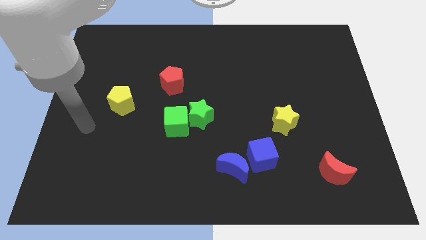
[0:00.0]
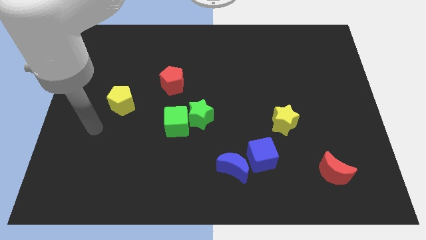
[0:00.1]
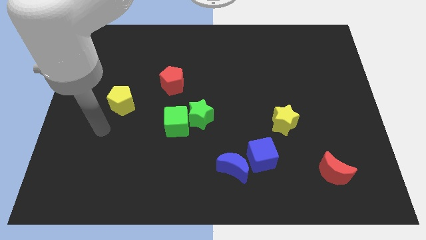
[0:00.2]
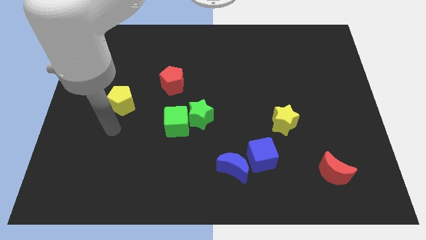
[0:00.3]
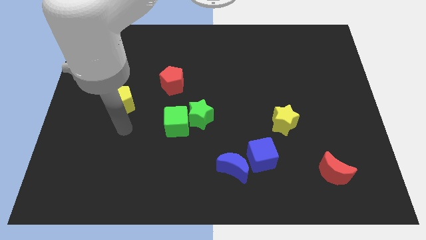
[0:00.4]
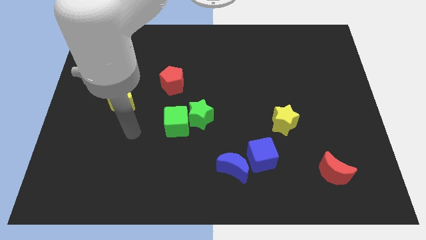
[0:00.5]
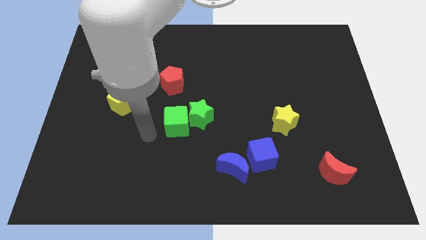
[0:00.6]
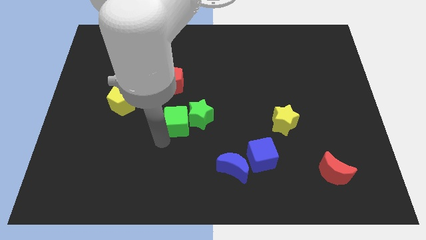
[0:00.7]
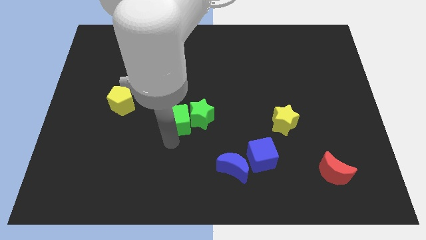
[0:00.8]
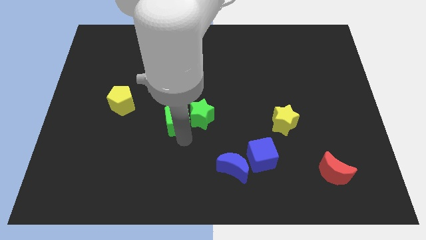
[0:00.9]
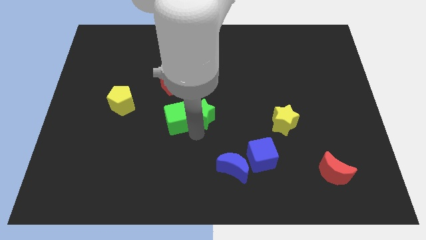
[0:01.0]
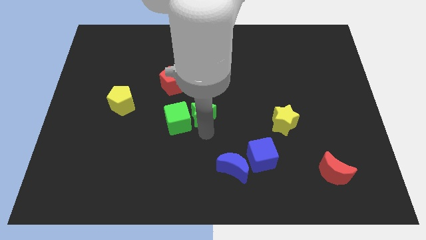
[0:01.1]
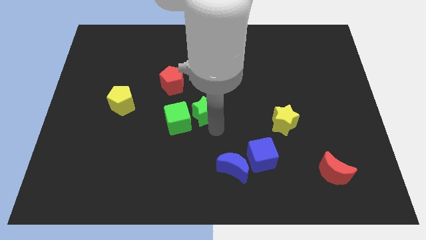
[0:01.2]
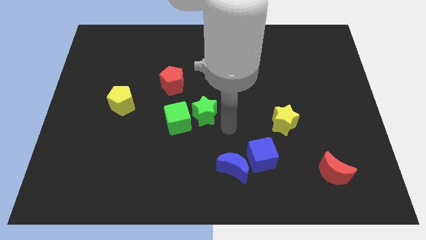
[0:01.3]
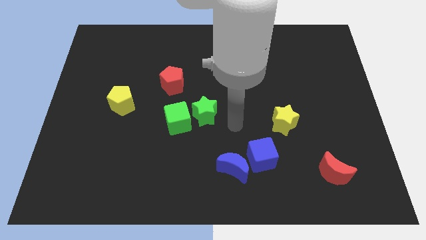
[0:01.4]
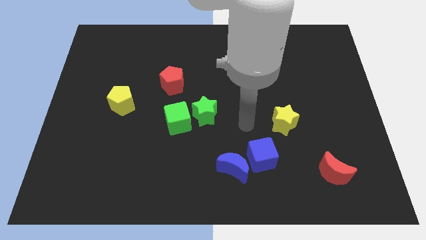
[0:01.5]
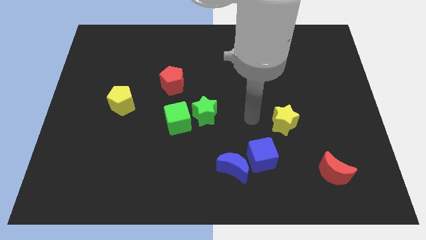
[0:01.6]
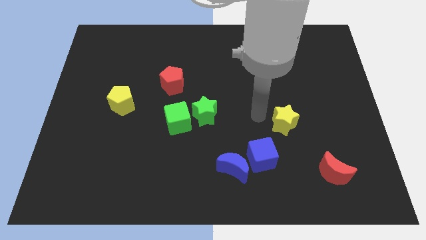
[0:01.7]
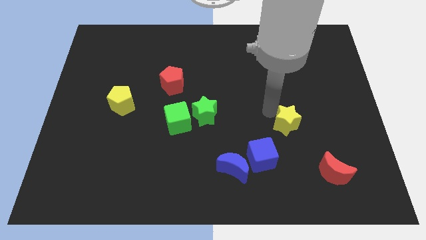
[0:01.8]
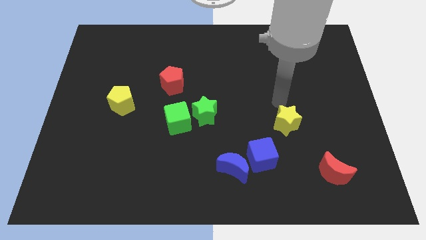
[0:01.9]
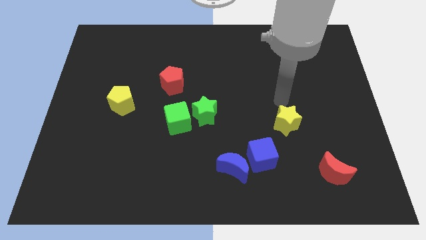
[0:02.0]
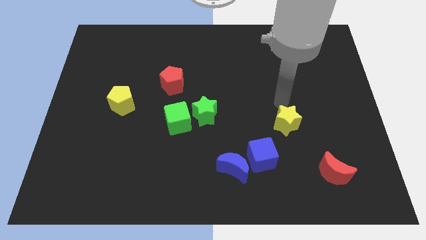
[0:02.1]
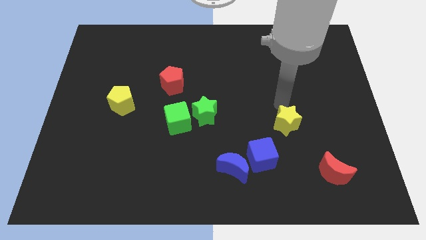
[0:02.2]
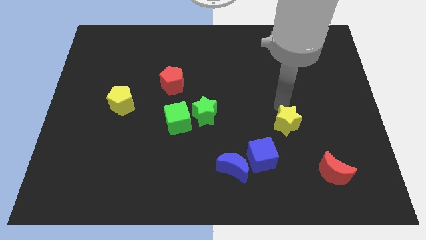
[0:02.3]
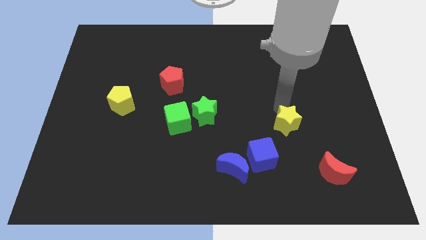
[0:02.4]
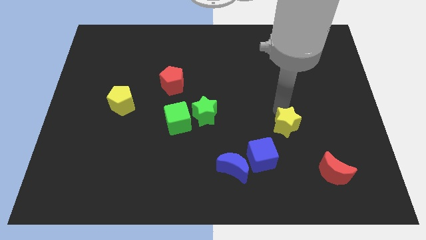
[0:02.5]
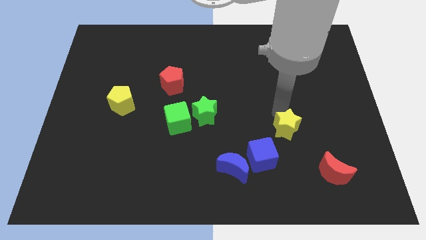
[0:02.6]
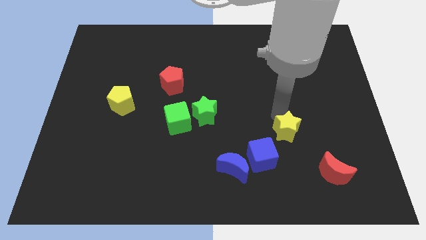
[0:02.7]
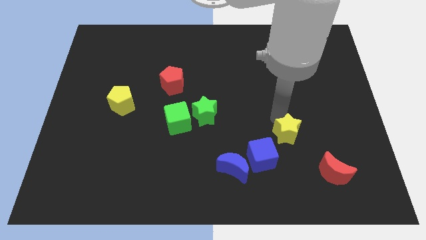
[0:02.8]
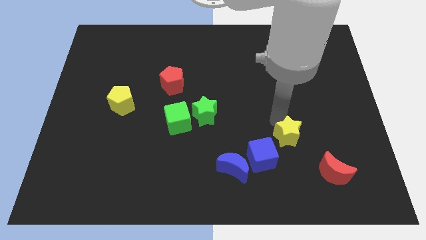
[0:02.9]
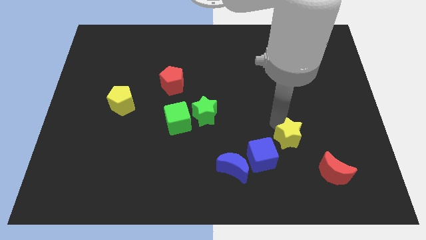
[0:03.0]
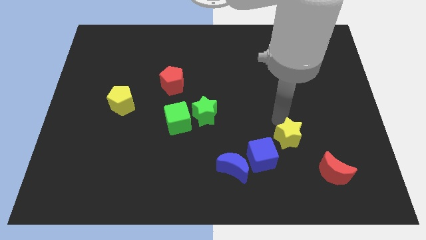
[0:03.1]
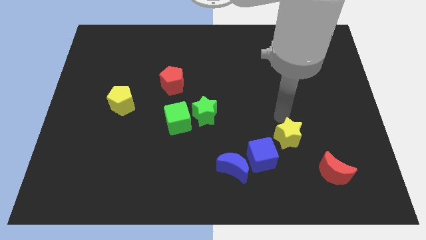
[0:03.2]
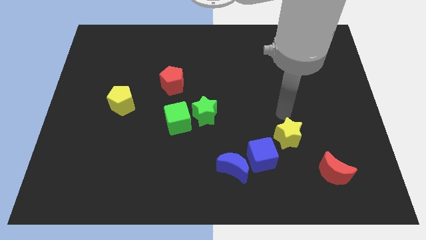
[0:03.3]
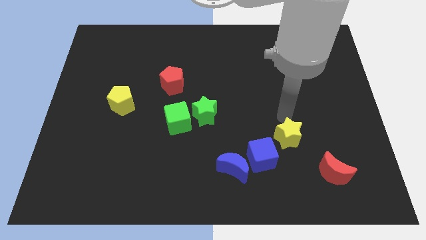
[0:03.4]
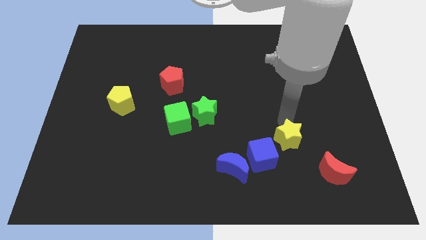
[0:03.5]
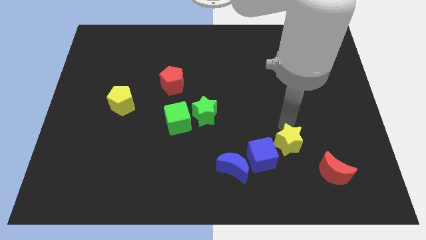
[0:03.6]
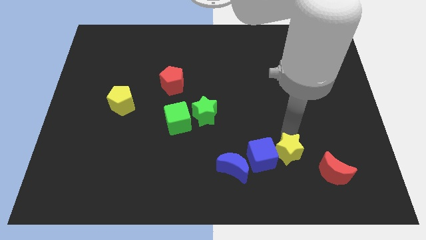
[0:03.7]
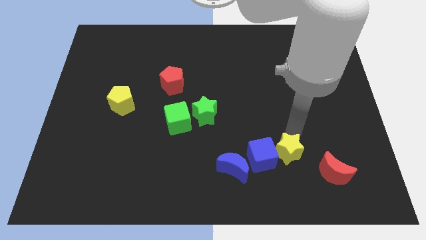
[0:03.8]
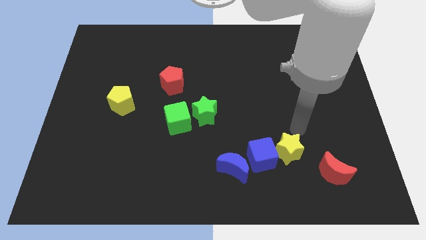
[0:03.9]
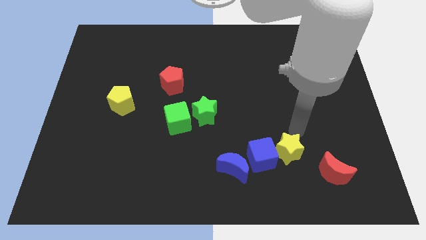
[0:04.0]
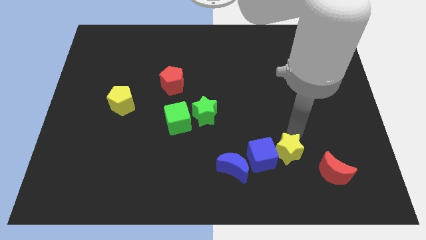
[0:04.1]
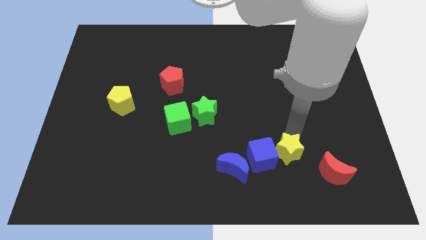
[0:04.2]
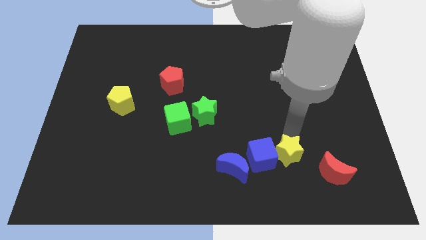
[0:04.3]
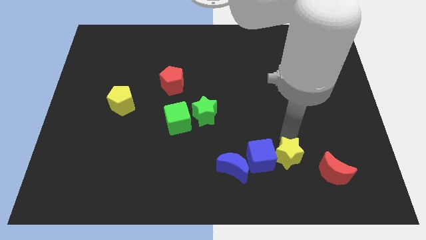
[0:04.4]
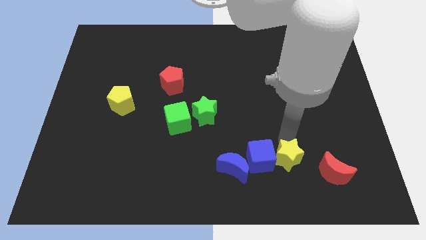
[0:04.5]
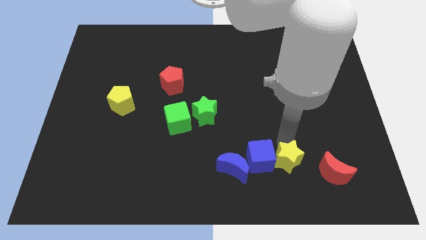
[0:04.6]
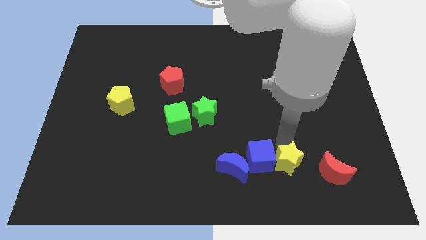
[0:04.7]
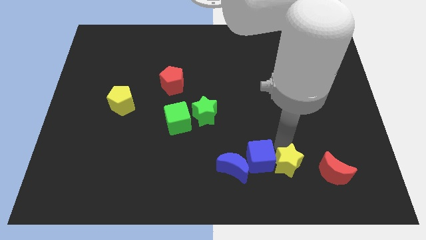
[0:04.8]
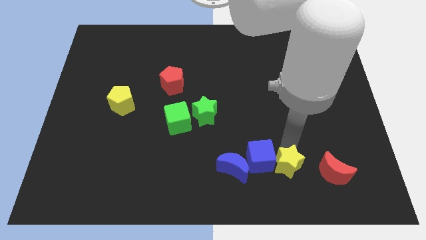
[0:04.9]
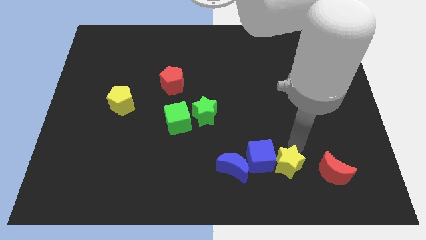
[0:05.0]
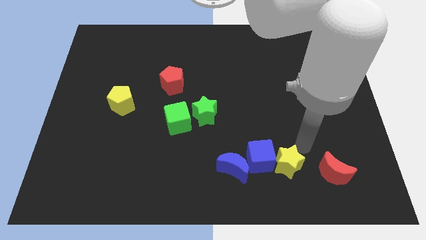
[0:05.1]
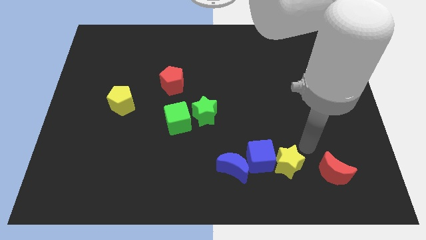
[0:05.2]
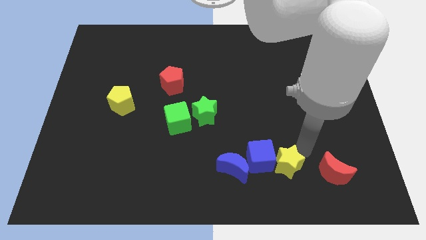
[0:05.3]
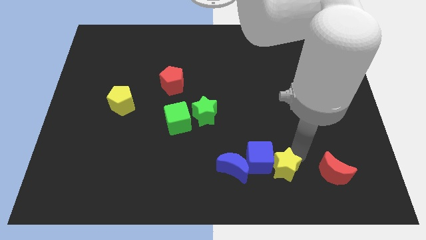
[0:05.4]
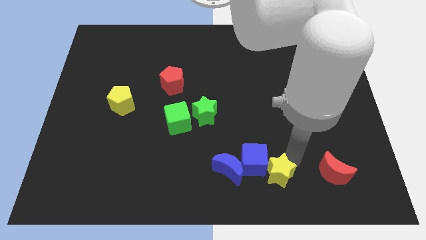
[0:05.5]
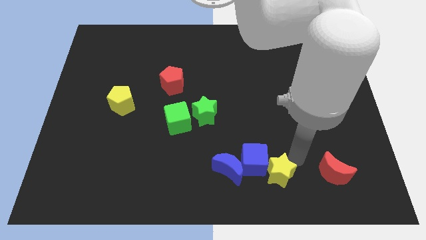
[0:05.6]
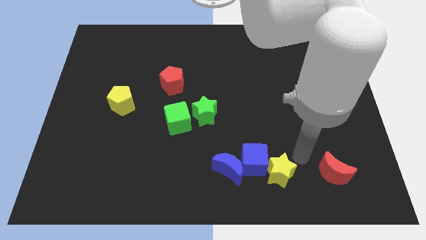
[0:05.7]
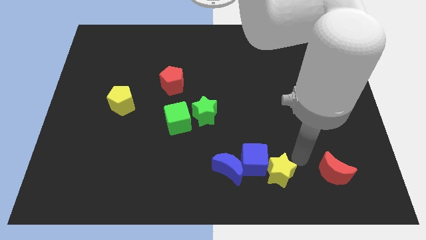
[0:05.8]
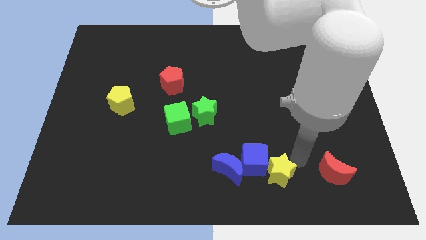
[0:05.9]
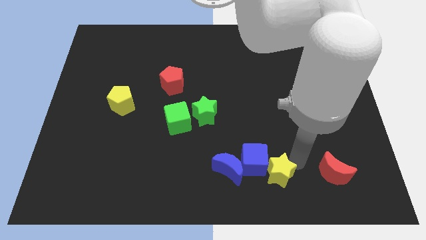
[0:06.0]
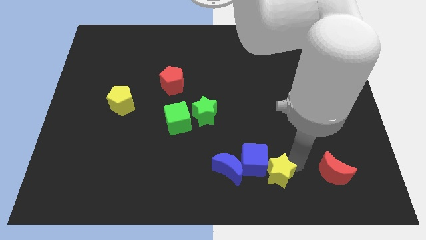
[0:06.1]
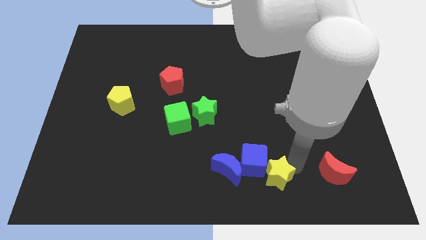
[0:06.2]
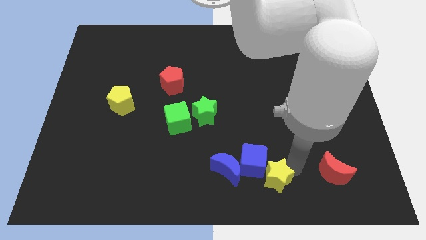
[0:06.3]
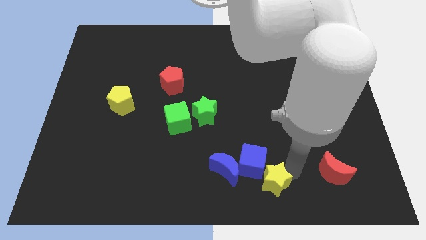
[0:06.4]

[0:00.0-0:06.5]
push the yellow star to the bottom
